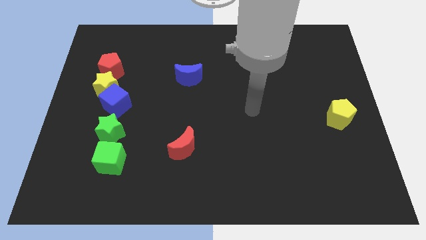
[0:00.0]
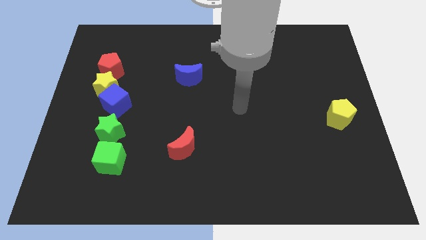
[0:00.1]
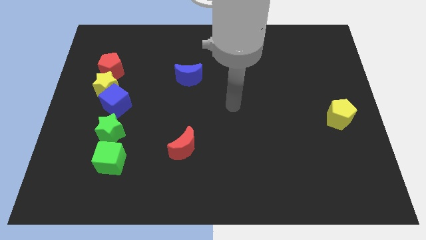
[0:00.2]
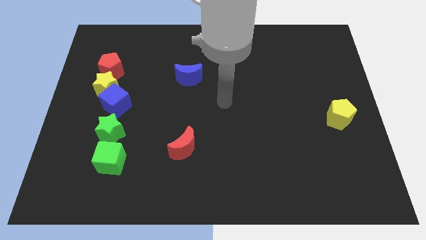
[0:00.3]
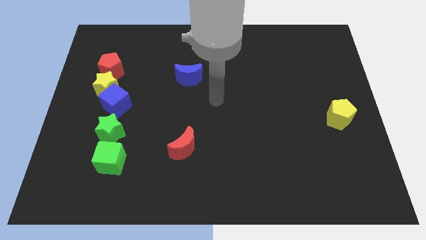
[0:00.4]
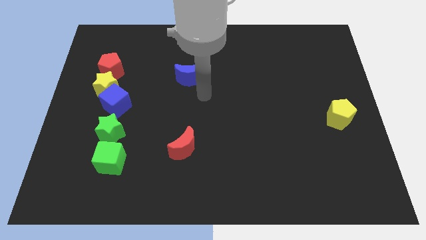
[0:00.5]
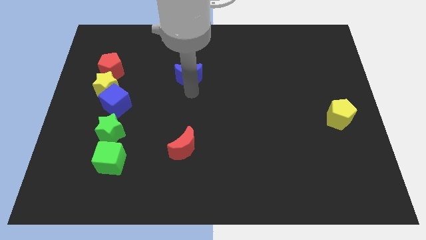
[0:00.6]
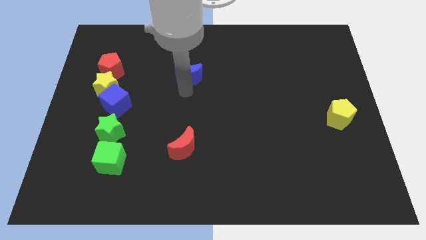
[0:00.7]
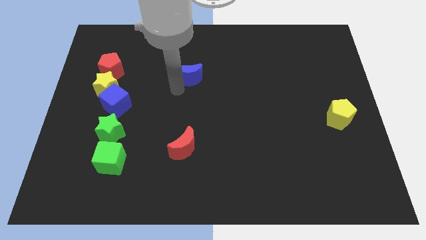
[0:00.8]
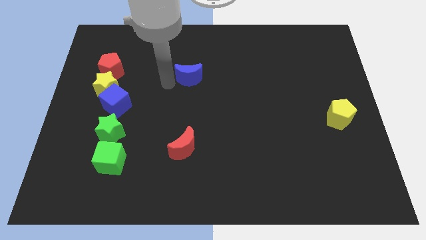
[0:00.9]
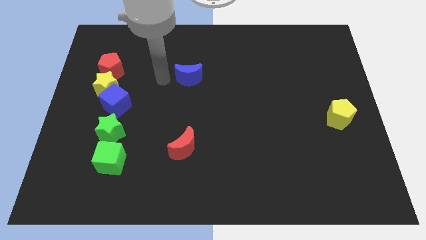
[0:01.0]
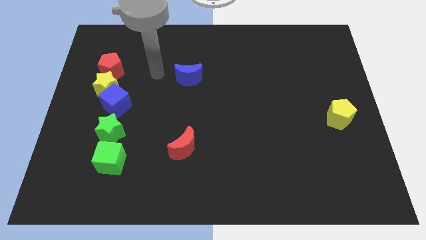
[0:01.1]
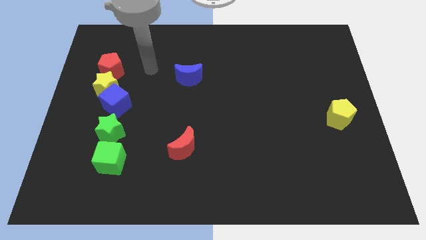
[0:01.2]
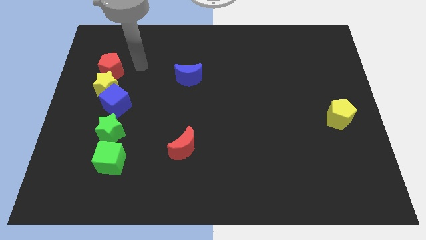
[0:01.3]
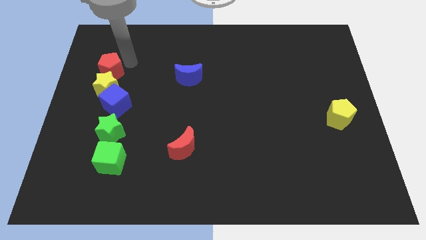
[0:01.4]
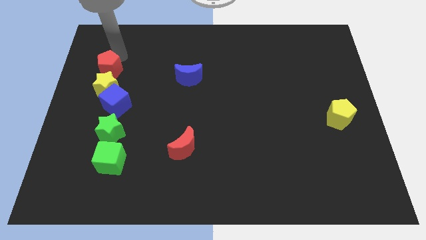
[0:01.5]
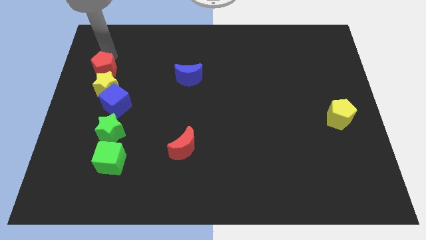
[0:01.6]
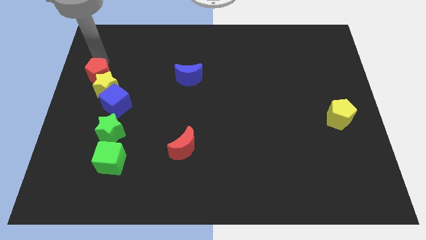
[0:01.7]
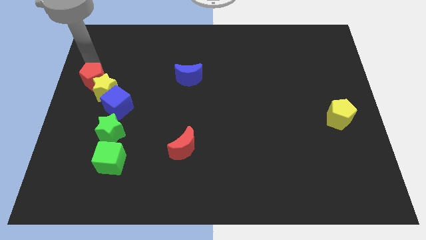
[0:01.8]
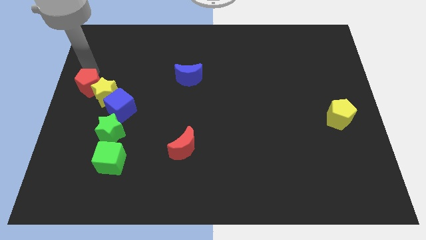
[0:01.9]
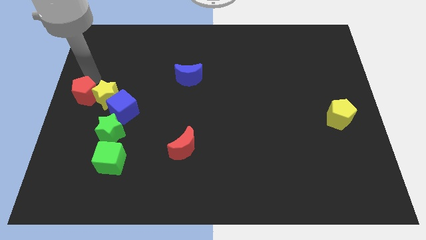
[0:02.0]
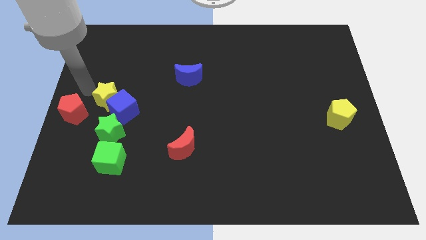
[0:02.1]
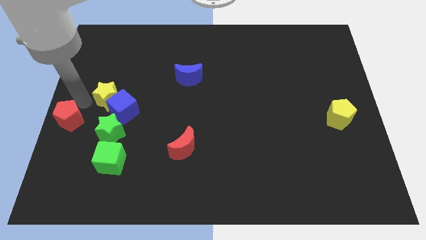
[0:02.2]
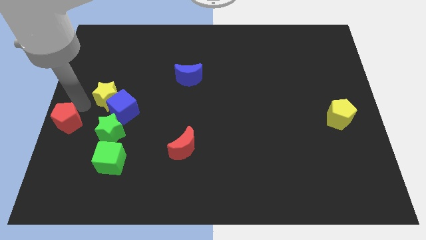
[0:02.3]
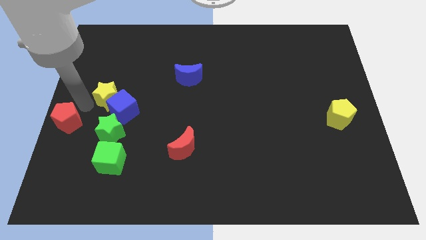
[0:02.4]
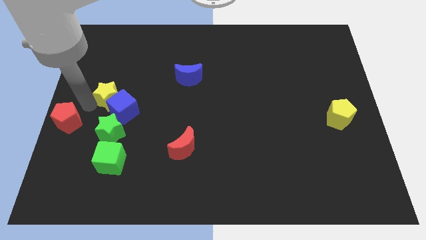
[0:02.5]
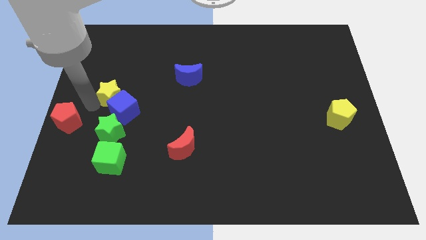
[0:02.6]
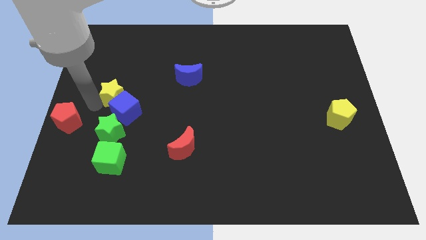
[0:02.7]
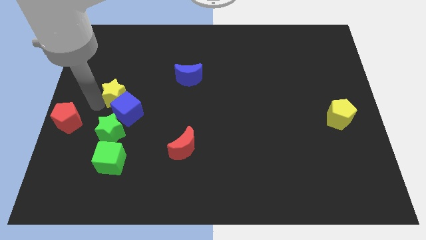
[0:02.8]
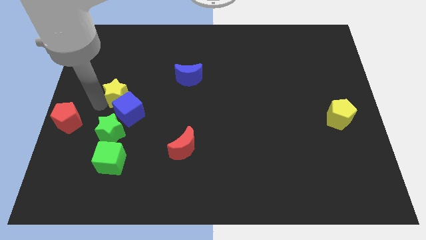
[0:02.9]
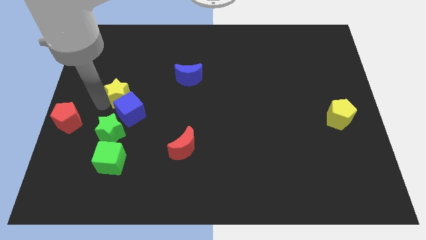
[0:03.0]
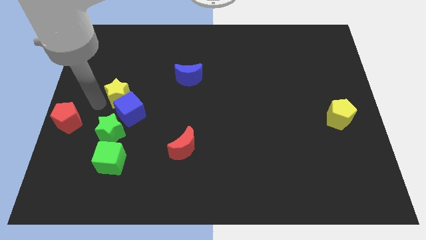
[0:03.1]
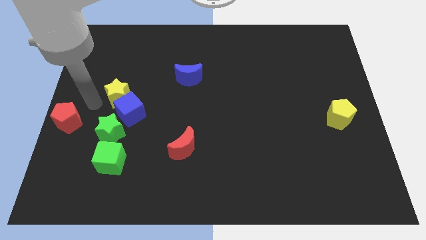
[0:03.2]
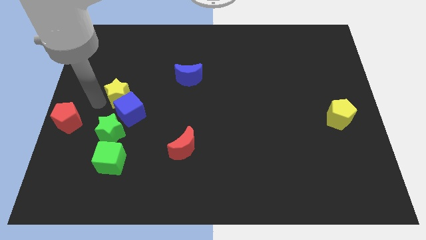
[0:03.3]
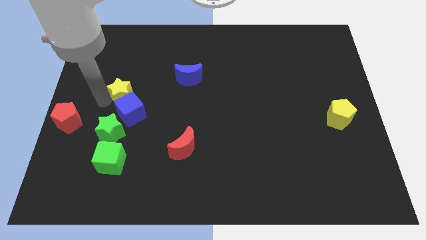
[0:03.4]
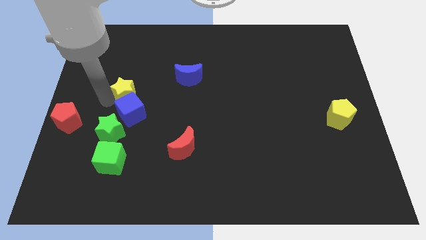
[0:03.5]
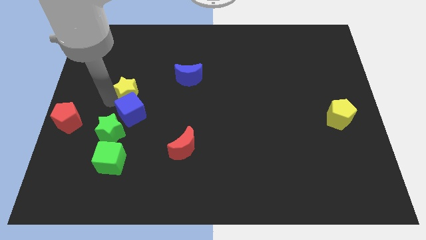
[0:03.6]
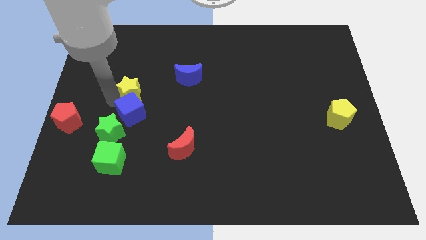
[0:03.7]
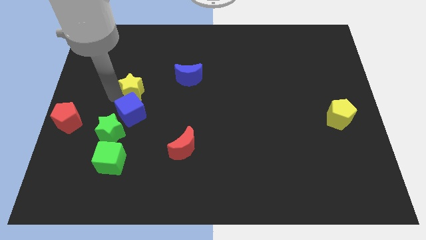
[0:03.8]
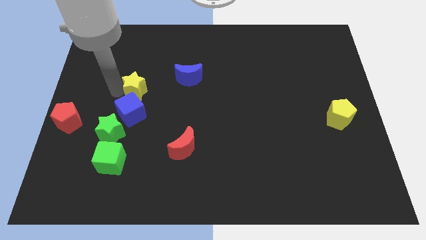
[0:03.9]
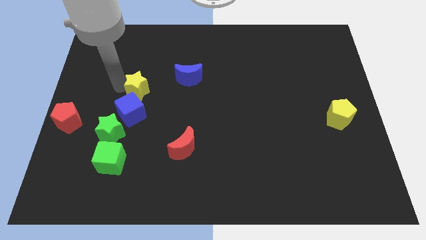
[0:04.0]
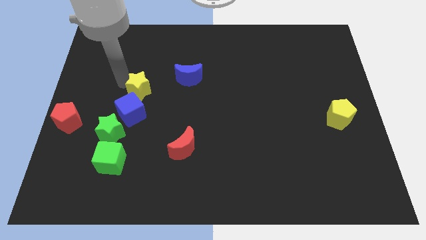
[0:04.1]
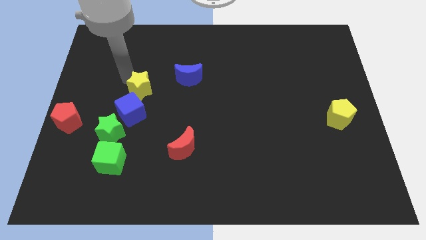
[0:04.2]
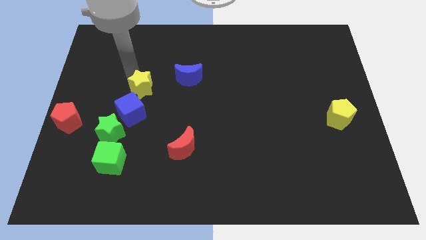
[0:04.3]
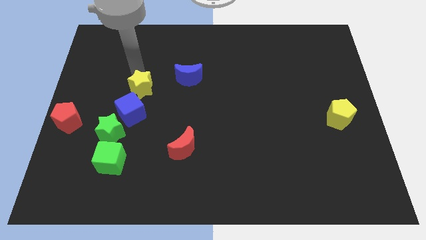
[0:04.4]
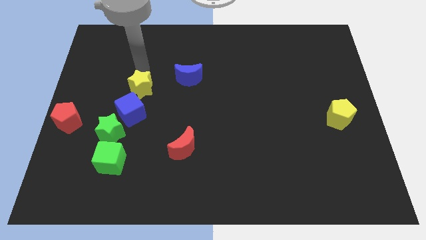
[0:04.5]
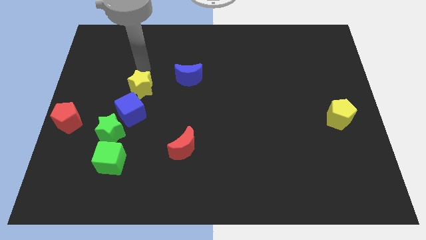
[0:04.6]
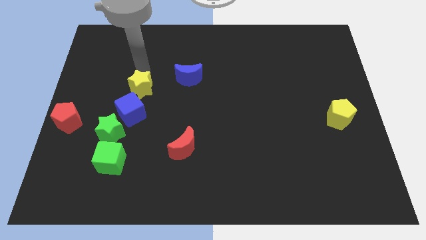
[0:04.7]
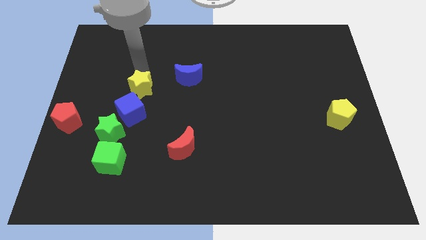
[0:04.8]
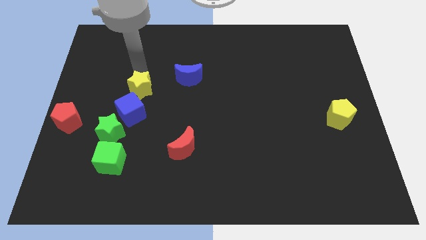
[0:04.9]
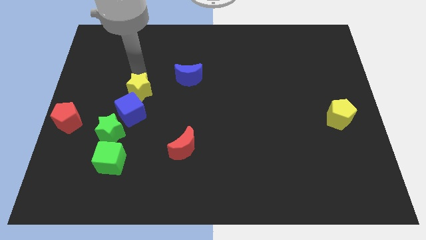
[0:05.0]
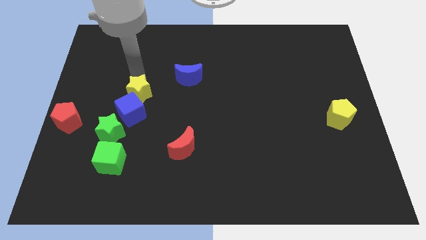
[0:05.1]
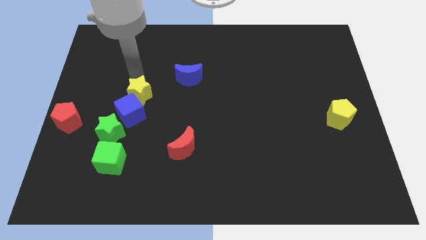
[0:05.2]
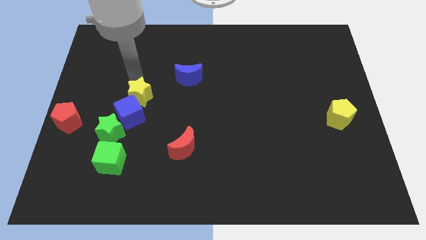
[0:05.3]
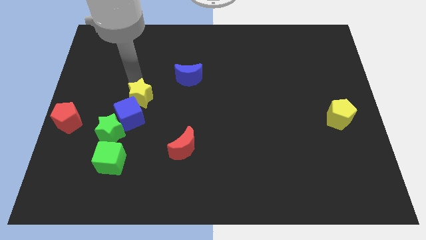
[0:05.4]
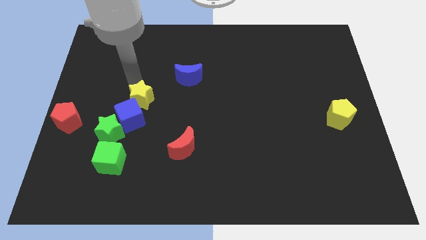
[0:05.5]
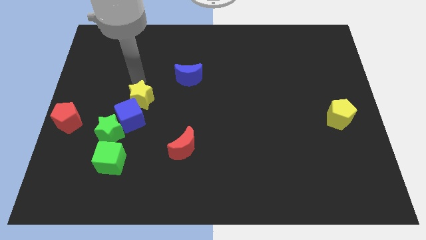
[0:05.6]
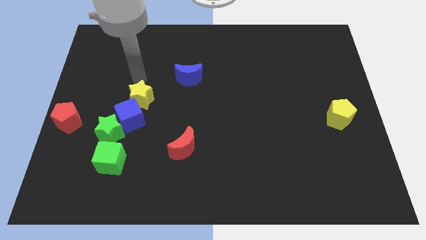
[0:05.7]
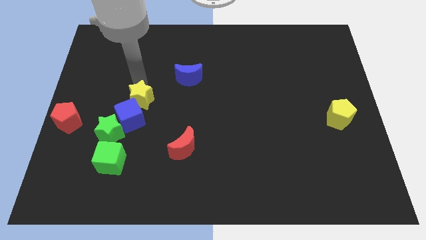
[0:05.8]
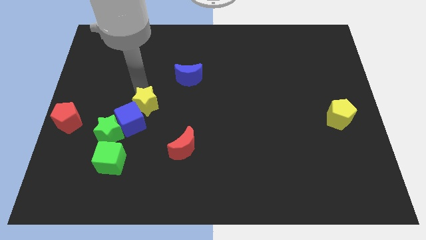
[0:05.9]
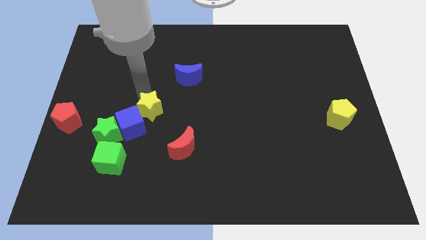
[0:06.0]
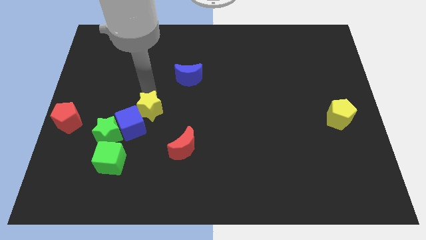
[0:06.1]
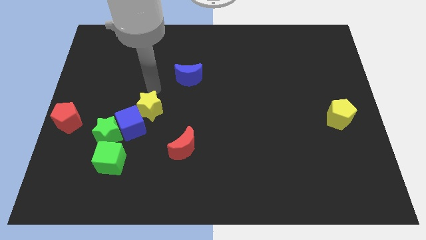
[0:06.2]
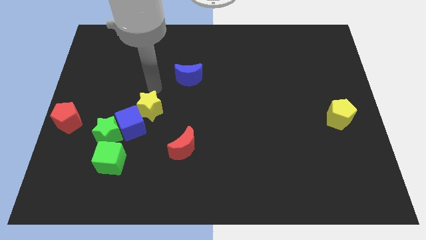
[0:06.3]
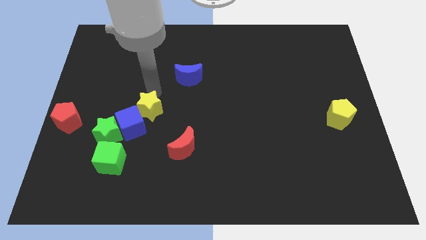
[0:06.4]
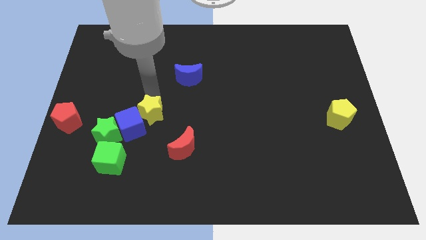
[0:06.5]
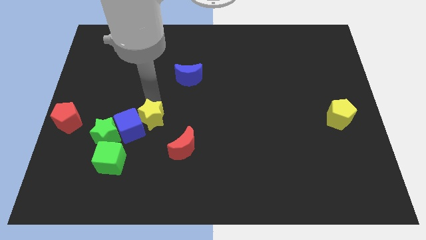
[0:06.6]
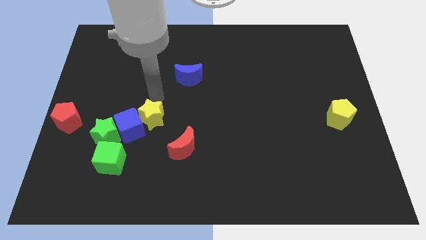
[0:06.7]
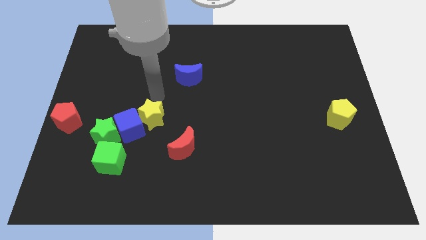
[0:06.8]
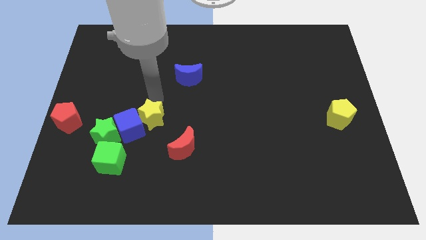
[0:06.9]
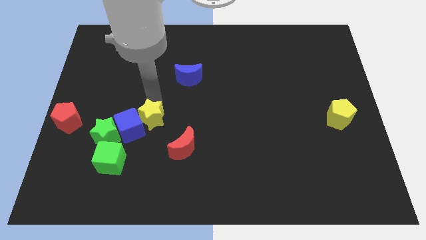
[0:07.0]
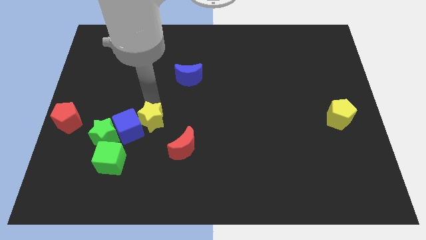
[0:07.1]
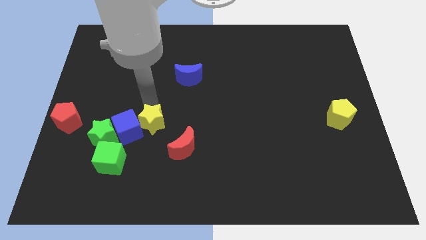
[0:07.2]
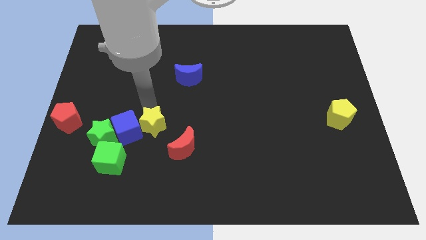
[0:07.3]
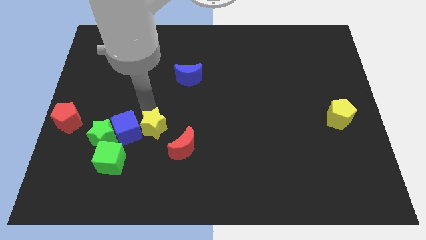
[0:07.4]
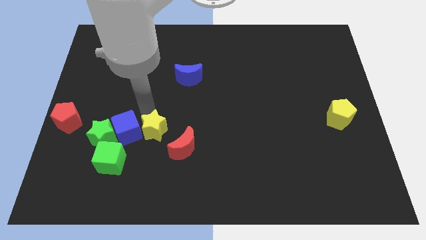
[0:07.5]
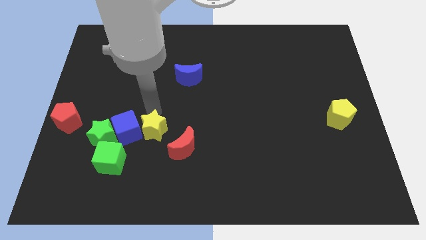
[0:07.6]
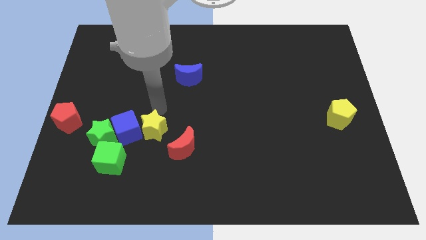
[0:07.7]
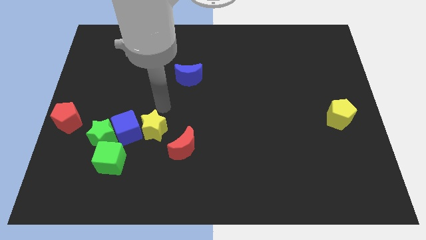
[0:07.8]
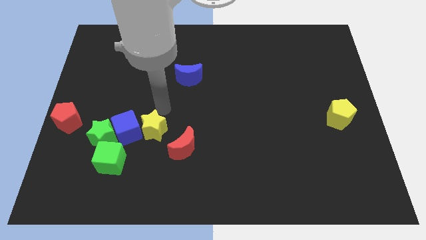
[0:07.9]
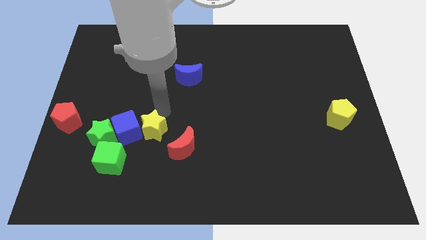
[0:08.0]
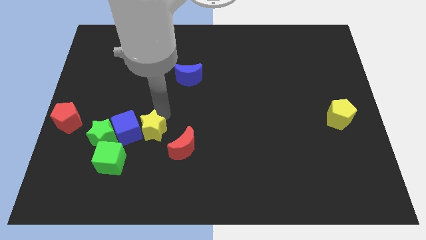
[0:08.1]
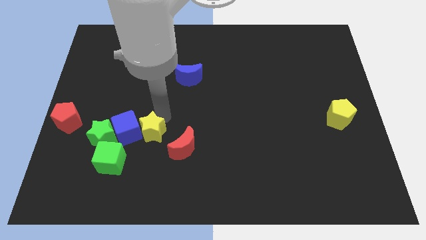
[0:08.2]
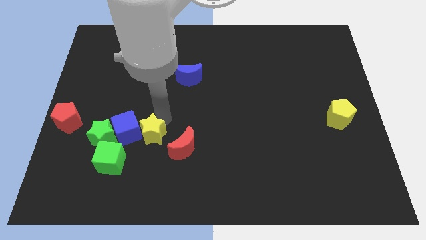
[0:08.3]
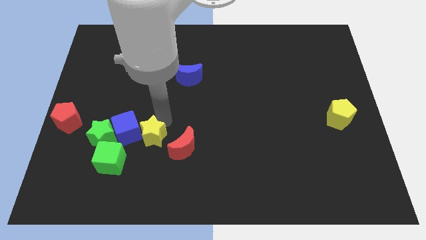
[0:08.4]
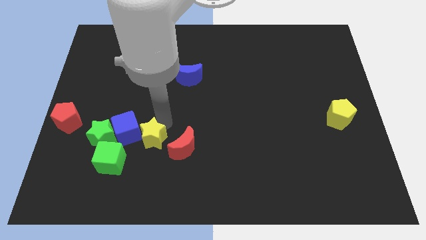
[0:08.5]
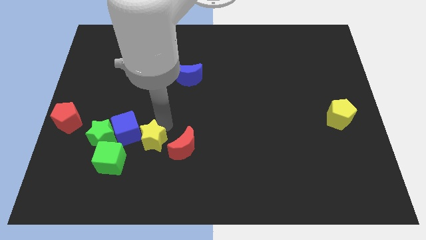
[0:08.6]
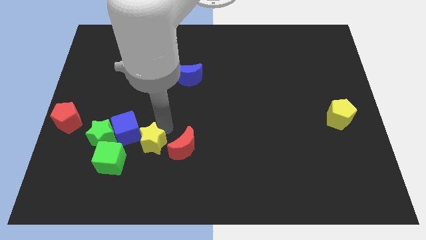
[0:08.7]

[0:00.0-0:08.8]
push the yellow star downwards and then to the right
